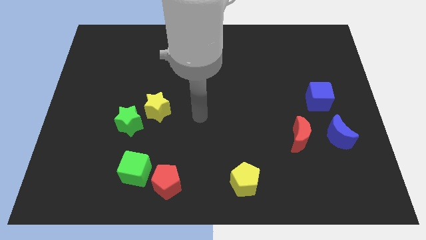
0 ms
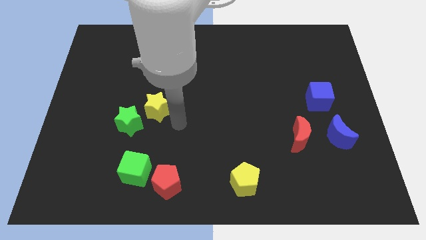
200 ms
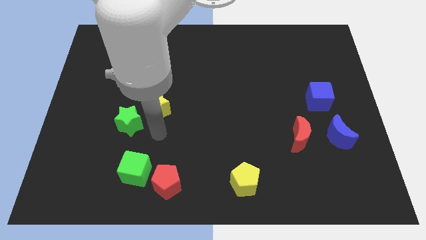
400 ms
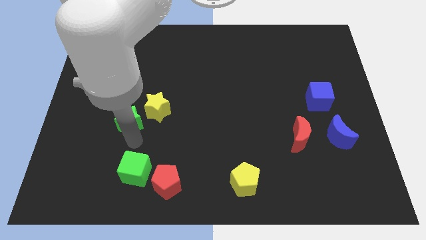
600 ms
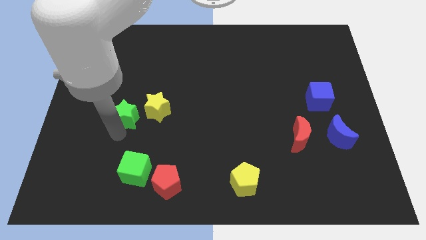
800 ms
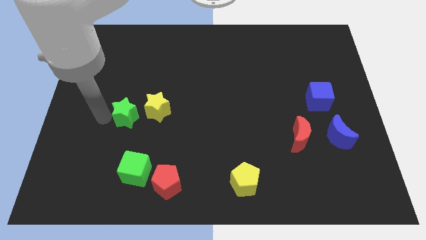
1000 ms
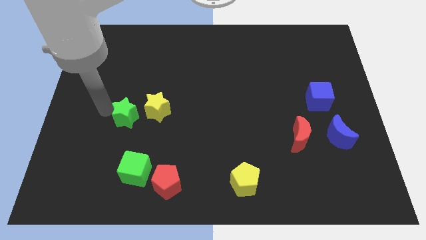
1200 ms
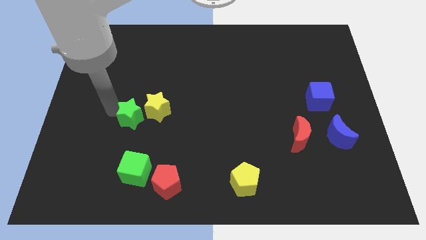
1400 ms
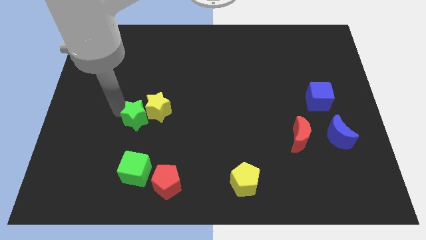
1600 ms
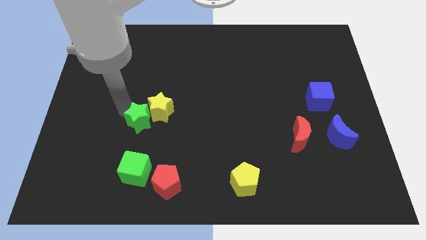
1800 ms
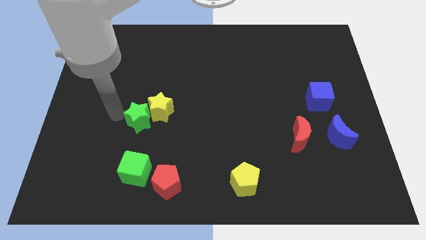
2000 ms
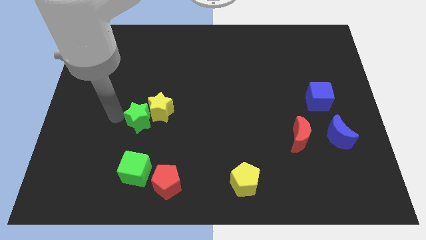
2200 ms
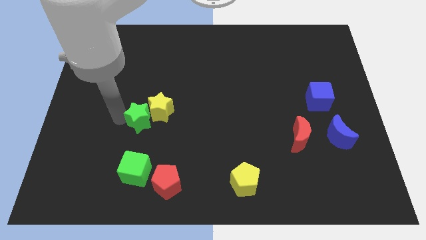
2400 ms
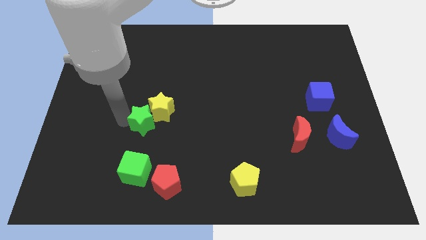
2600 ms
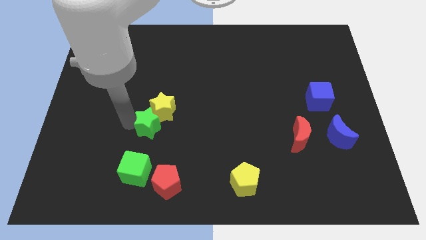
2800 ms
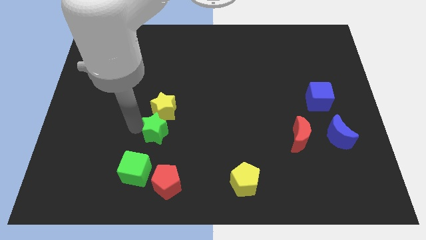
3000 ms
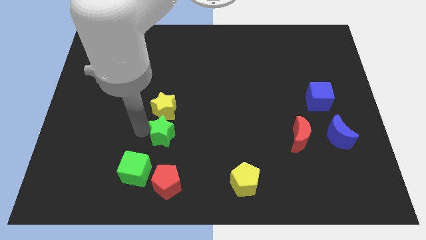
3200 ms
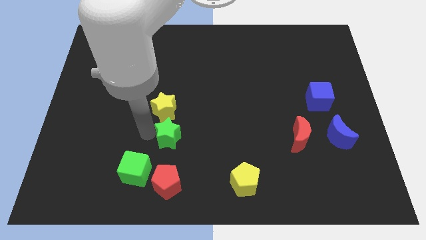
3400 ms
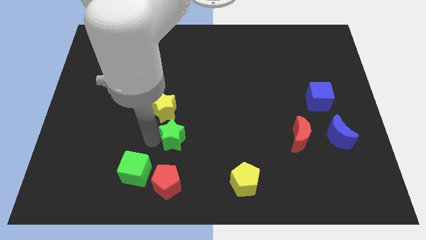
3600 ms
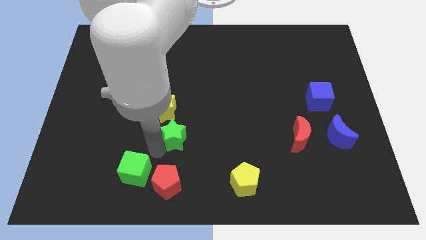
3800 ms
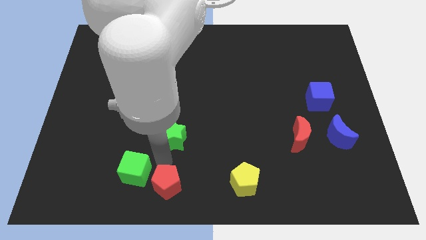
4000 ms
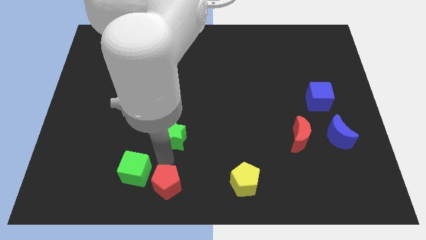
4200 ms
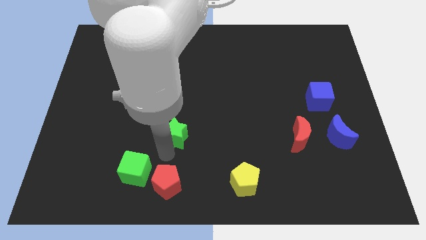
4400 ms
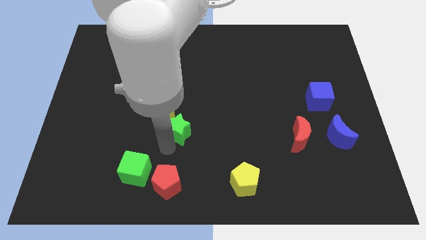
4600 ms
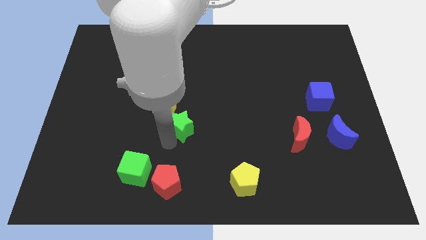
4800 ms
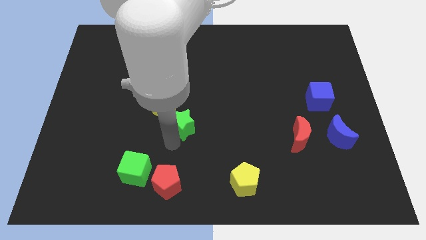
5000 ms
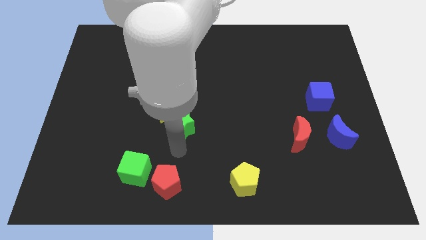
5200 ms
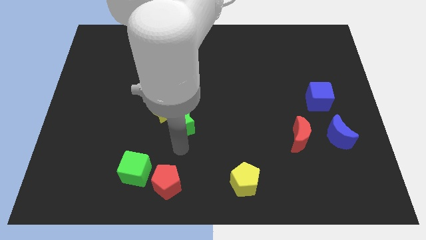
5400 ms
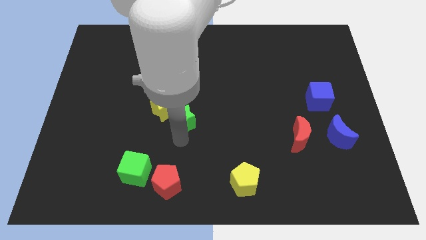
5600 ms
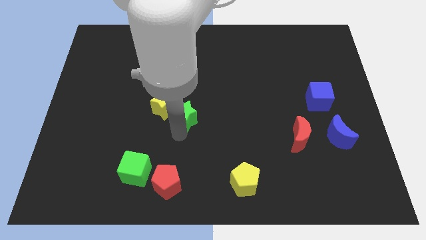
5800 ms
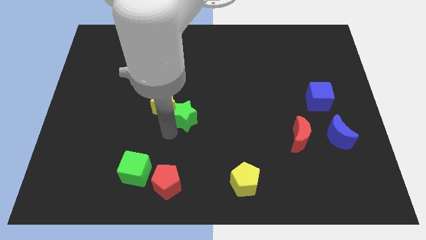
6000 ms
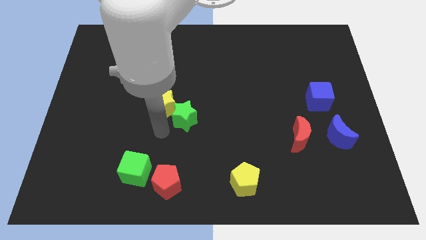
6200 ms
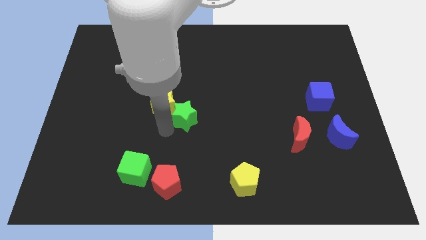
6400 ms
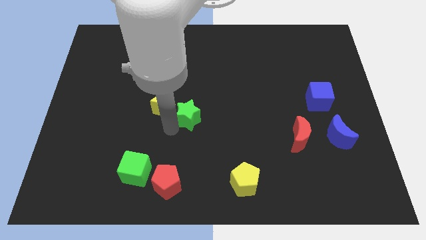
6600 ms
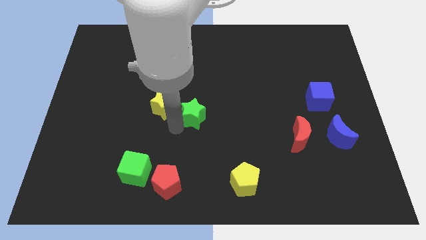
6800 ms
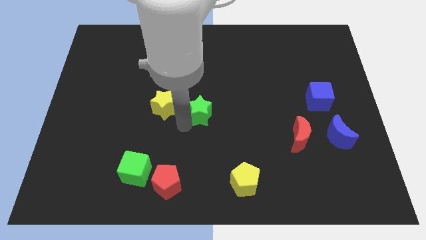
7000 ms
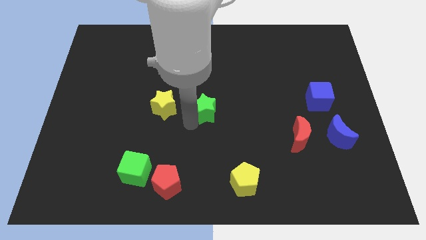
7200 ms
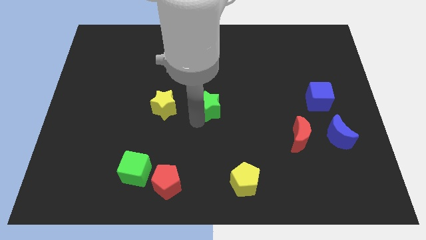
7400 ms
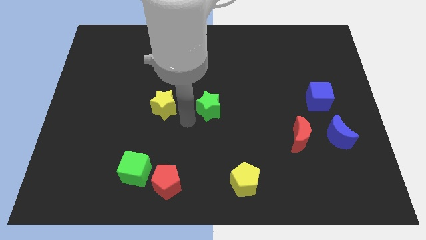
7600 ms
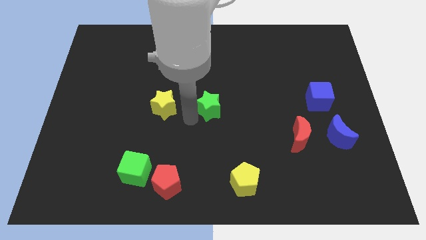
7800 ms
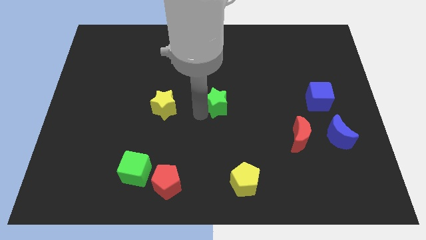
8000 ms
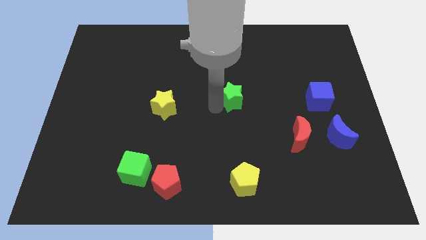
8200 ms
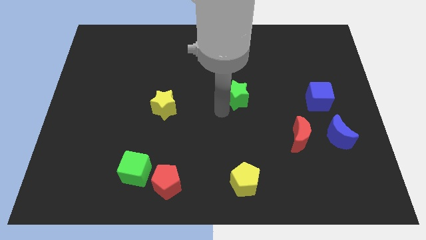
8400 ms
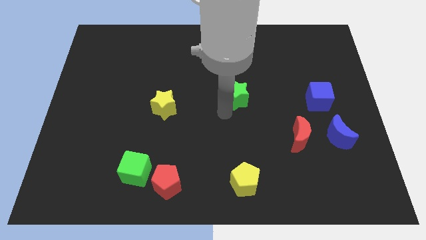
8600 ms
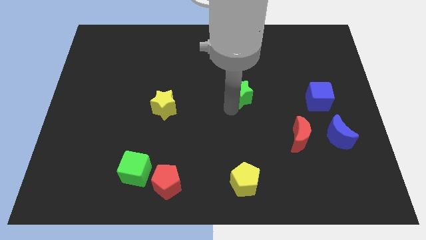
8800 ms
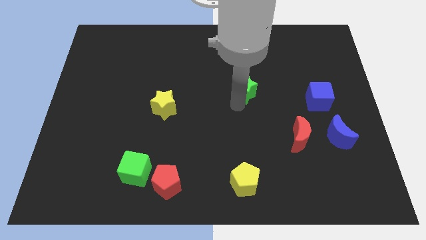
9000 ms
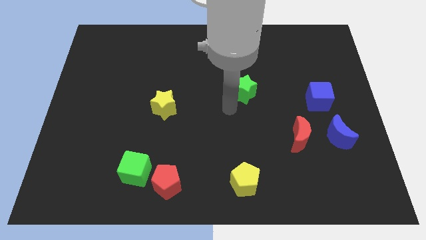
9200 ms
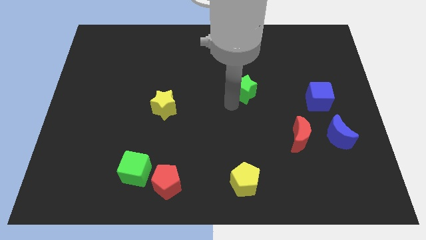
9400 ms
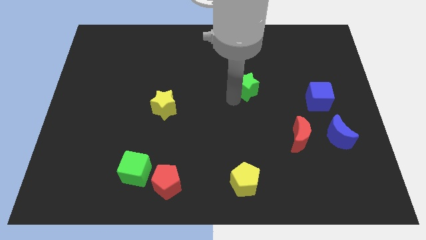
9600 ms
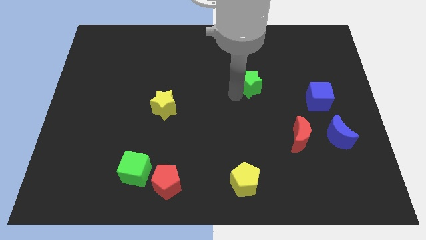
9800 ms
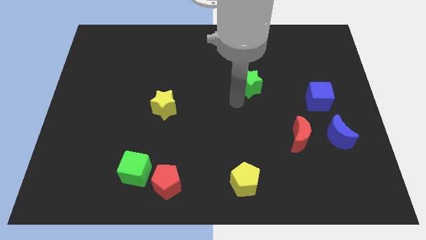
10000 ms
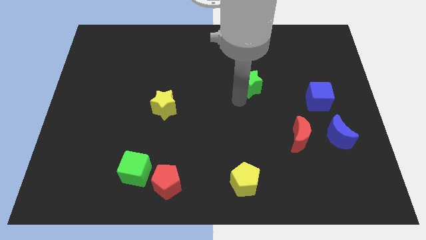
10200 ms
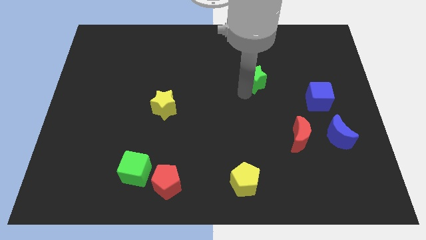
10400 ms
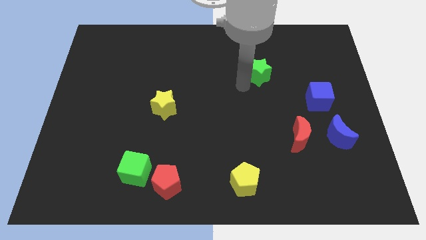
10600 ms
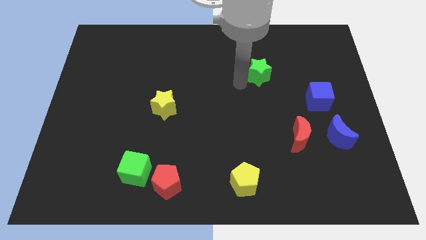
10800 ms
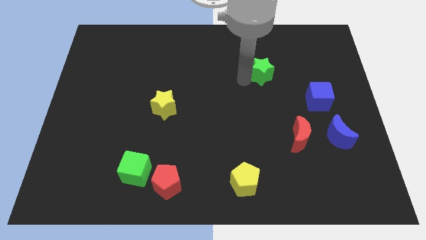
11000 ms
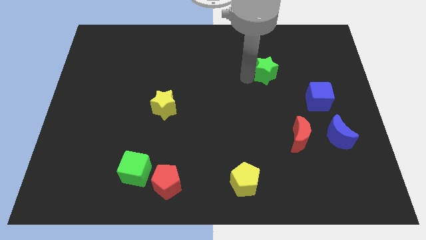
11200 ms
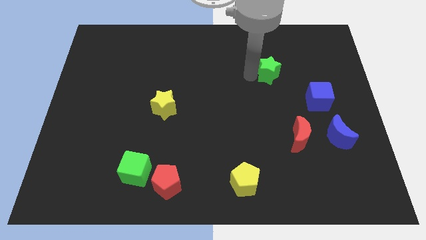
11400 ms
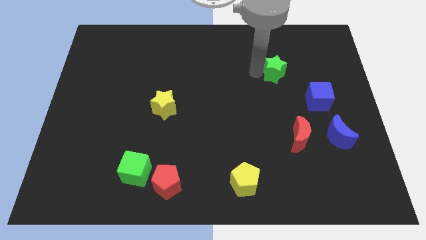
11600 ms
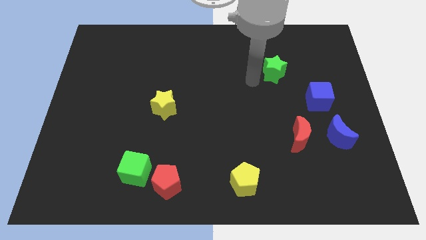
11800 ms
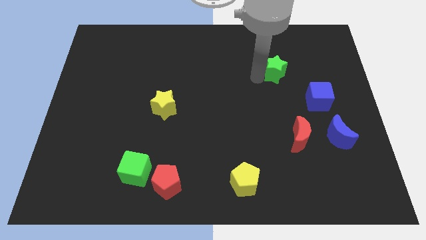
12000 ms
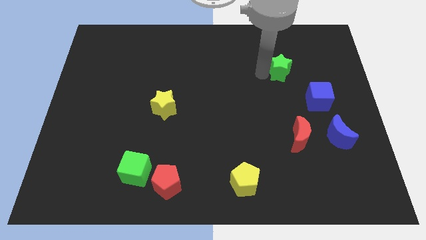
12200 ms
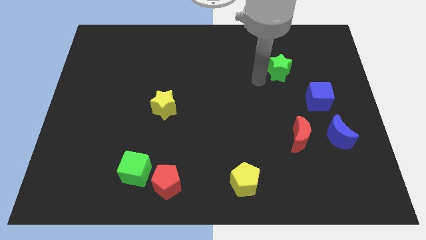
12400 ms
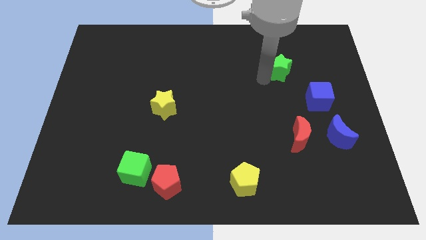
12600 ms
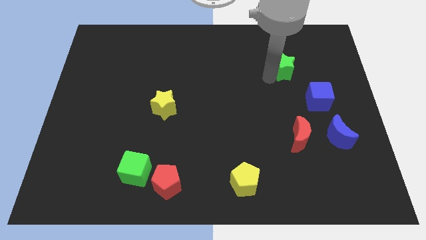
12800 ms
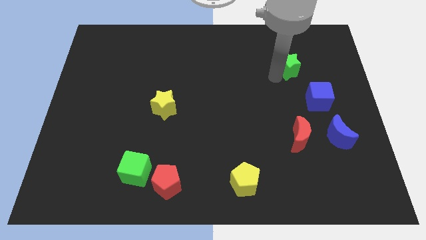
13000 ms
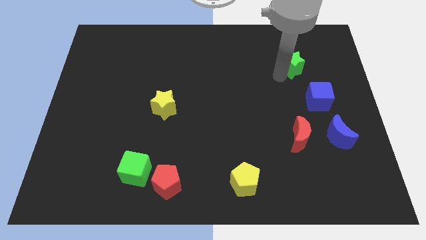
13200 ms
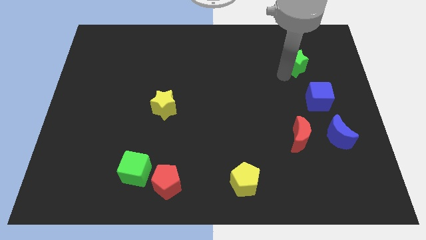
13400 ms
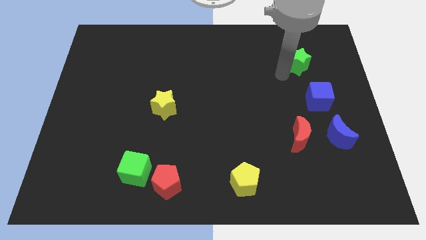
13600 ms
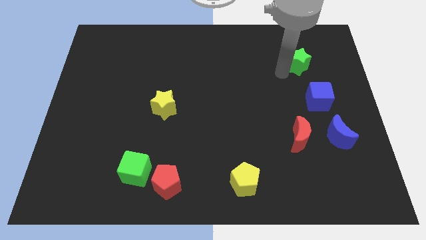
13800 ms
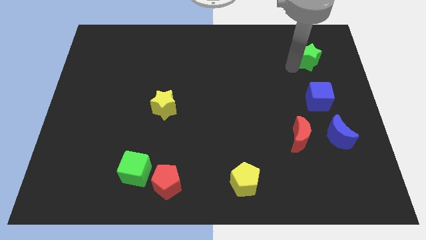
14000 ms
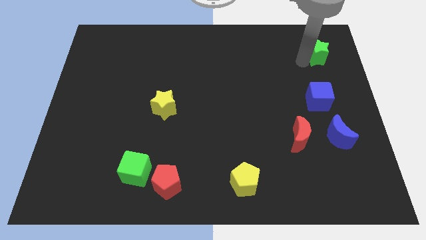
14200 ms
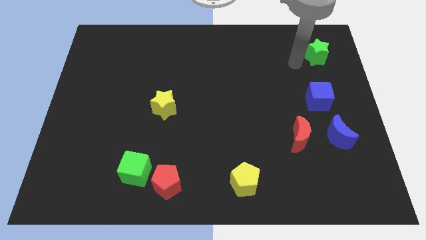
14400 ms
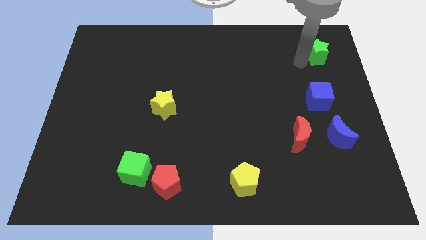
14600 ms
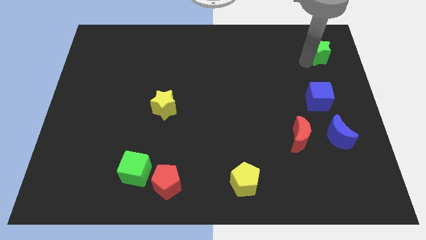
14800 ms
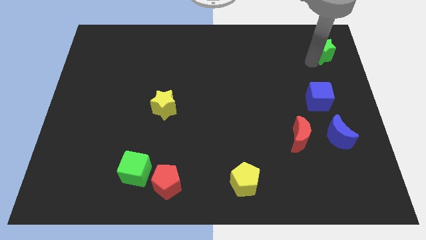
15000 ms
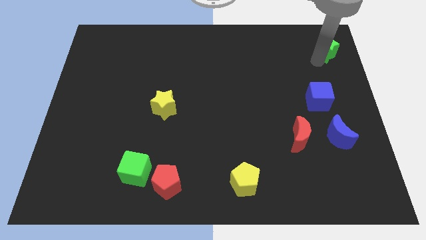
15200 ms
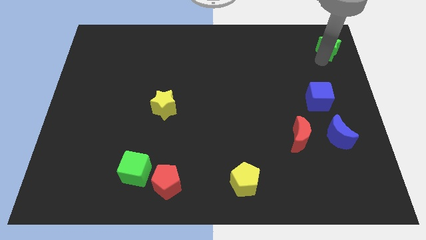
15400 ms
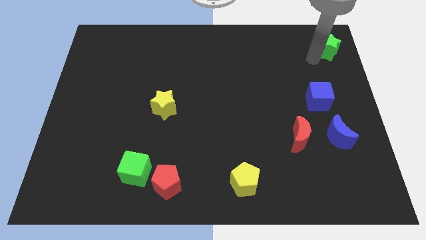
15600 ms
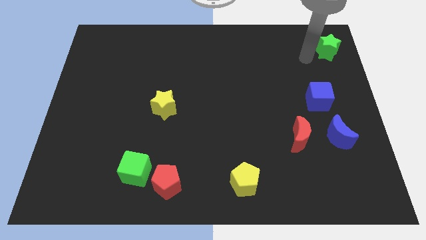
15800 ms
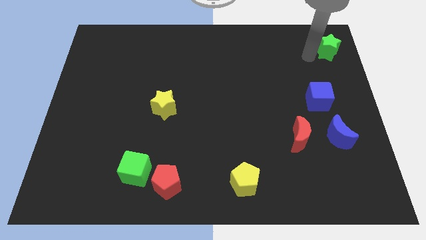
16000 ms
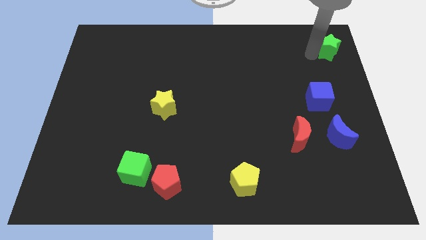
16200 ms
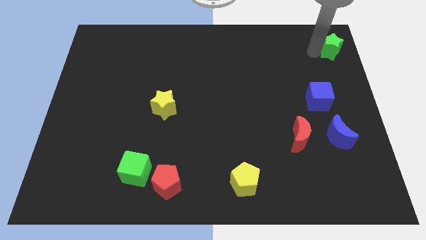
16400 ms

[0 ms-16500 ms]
slide the green star to the top right of the board
